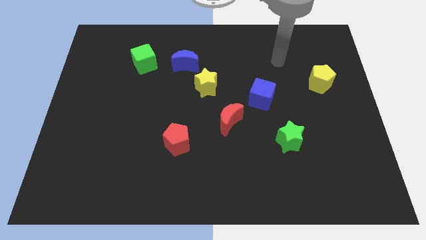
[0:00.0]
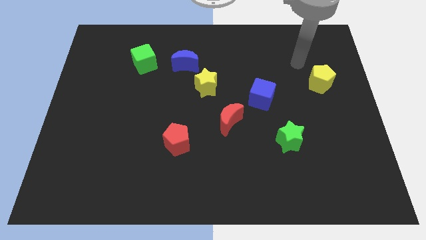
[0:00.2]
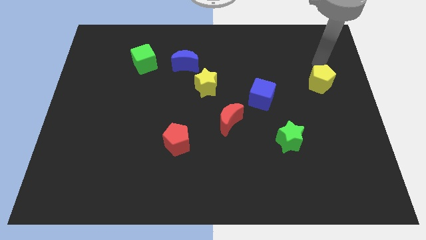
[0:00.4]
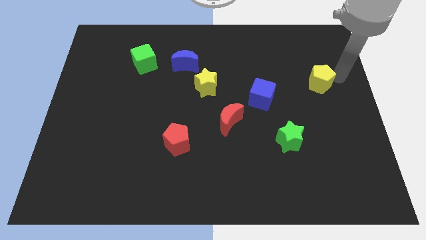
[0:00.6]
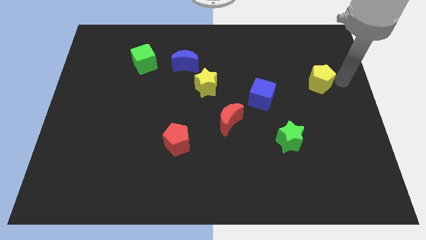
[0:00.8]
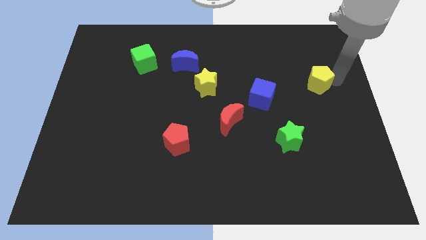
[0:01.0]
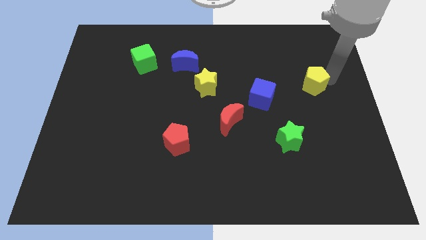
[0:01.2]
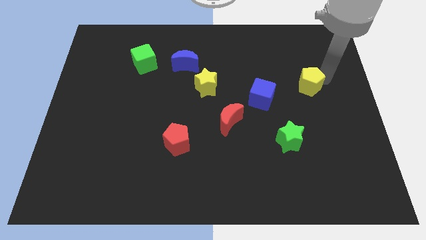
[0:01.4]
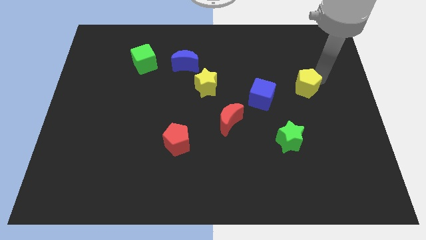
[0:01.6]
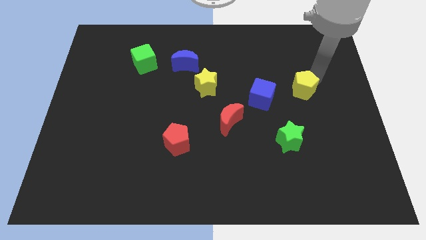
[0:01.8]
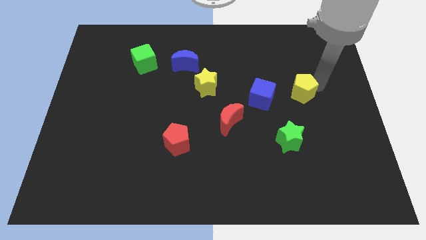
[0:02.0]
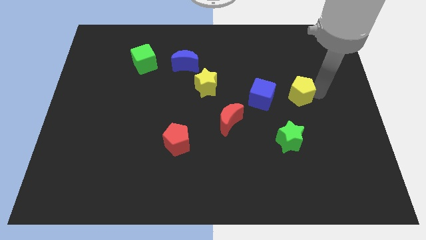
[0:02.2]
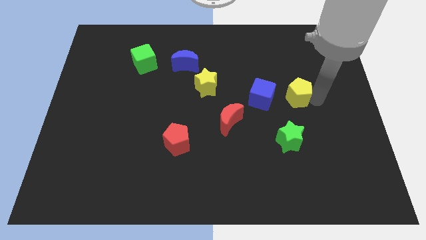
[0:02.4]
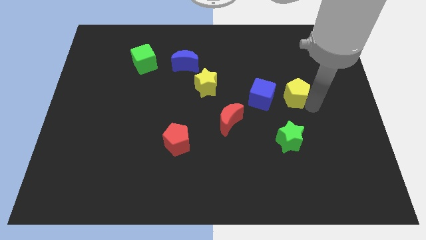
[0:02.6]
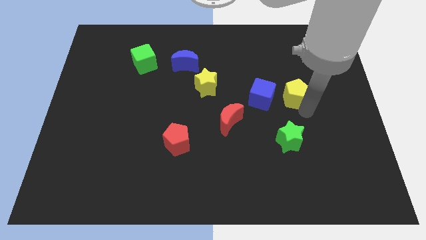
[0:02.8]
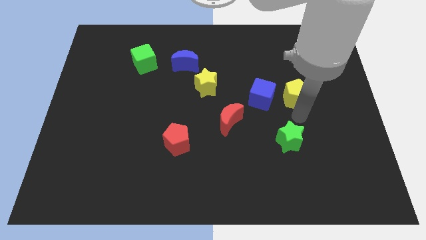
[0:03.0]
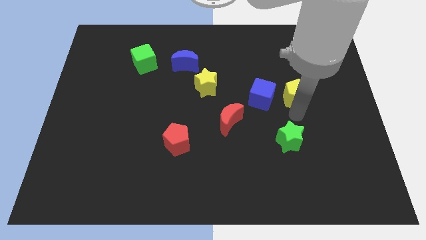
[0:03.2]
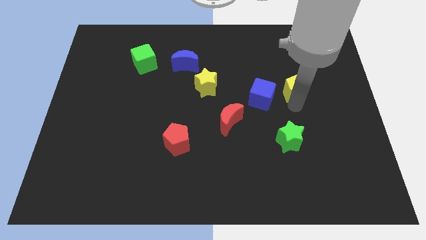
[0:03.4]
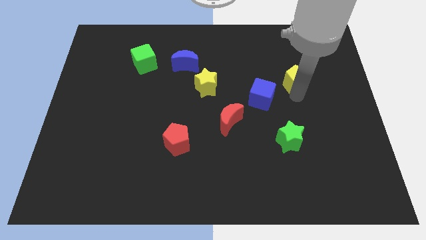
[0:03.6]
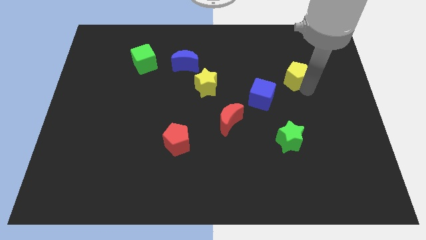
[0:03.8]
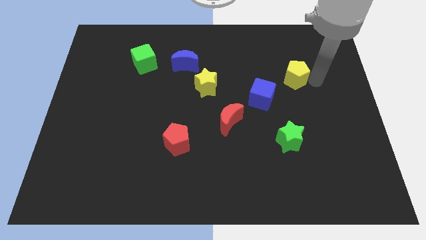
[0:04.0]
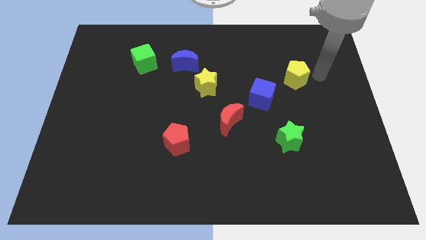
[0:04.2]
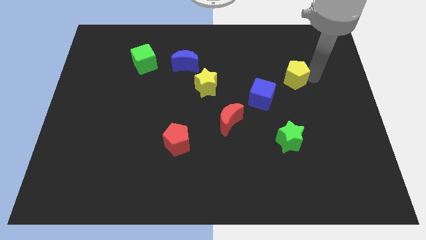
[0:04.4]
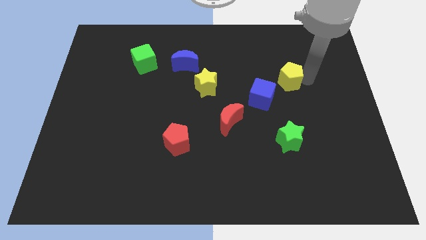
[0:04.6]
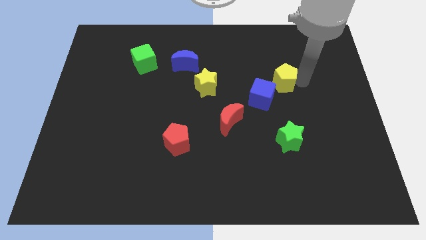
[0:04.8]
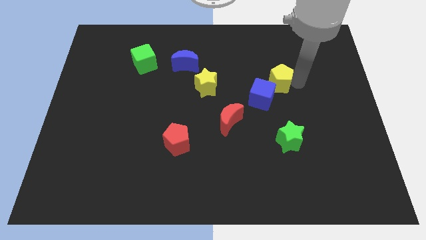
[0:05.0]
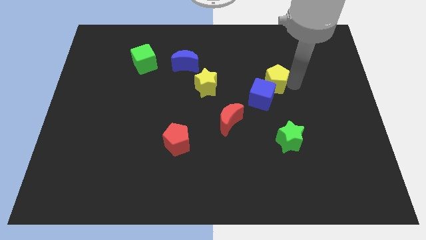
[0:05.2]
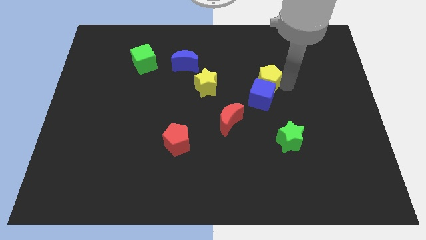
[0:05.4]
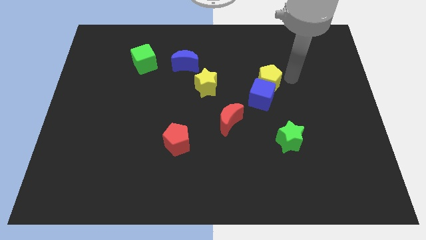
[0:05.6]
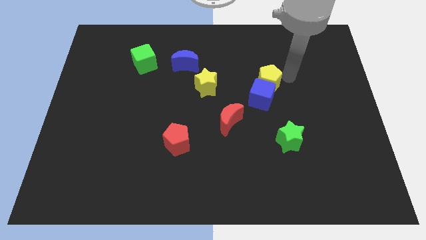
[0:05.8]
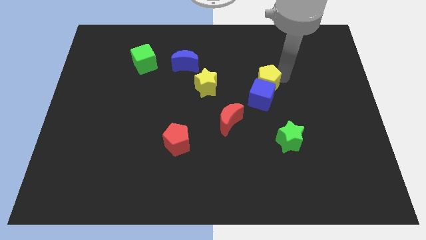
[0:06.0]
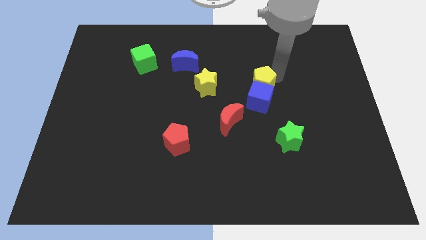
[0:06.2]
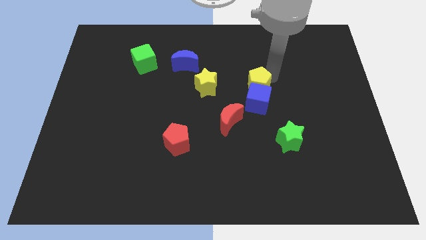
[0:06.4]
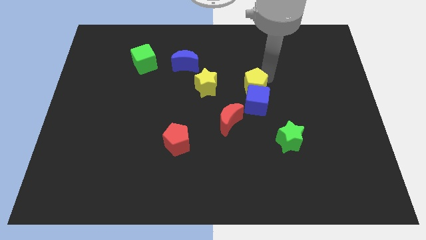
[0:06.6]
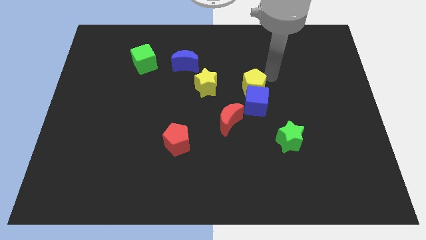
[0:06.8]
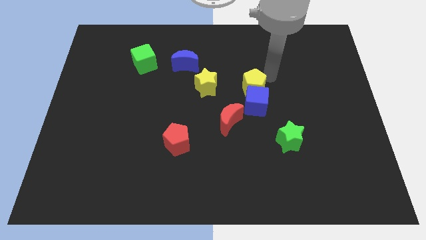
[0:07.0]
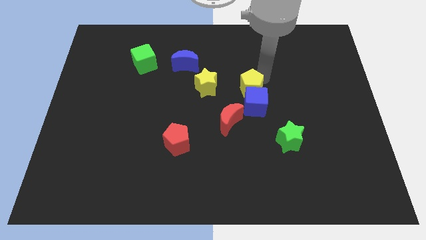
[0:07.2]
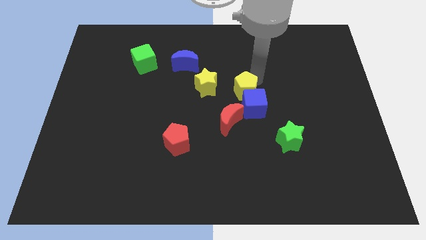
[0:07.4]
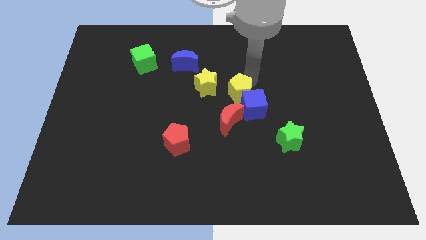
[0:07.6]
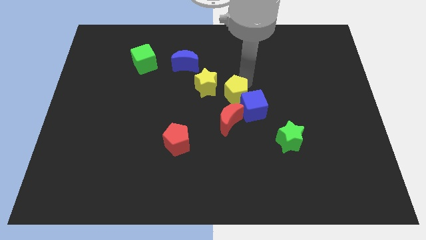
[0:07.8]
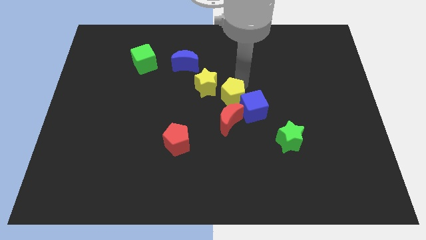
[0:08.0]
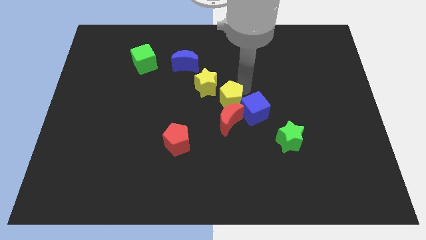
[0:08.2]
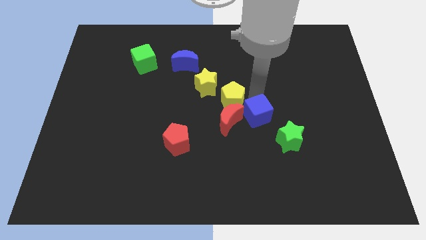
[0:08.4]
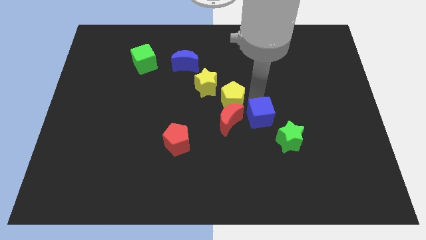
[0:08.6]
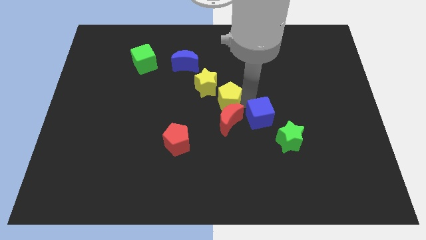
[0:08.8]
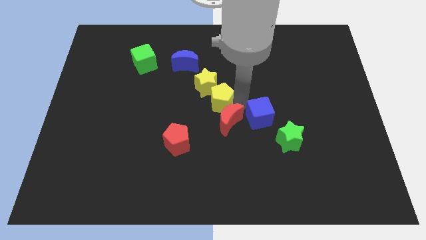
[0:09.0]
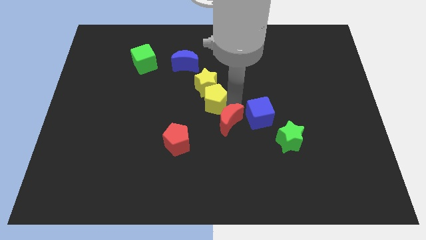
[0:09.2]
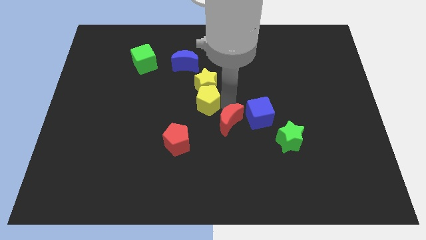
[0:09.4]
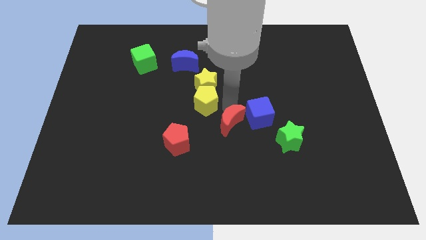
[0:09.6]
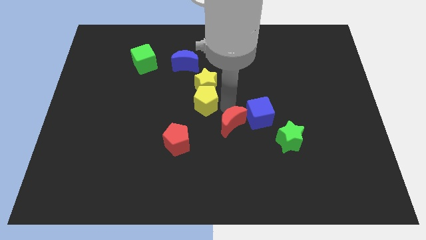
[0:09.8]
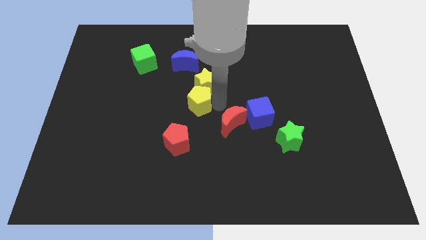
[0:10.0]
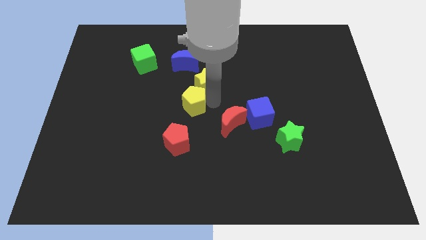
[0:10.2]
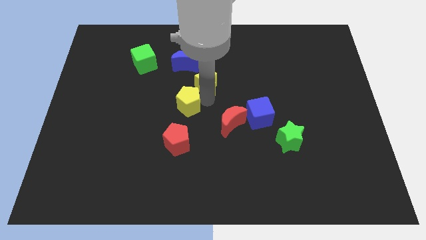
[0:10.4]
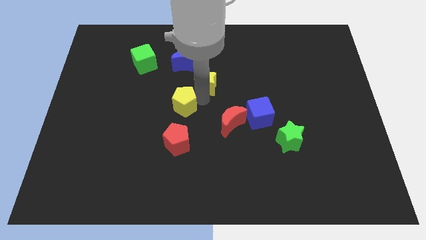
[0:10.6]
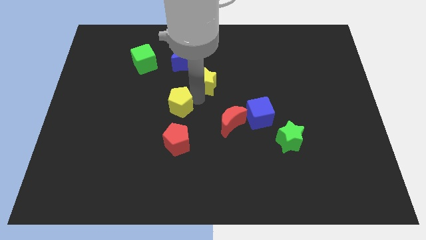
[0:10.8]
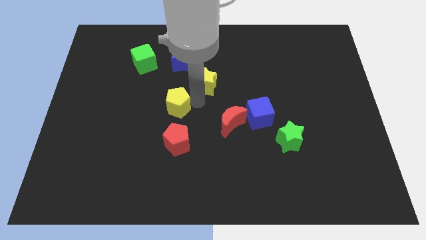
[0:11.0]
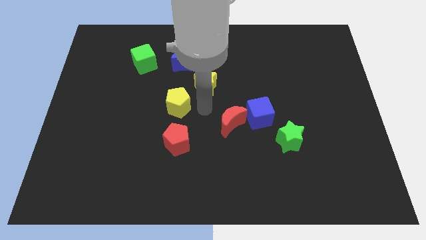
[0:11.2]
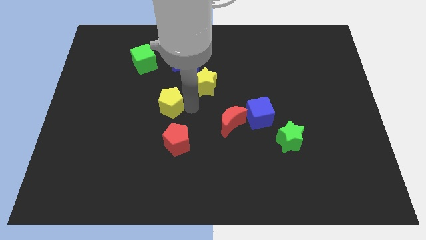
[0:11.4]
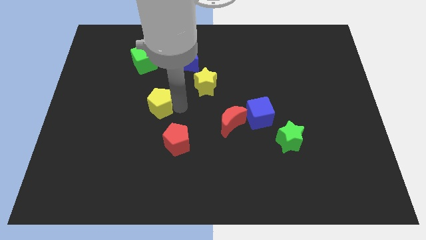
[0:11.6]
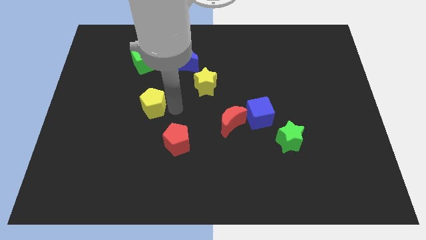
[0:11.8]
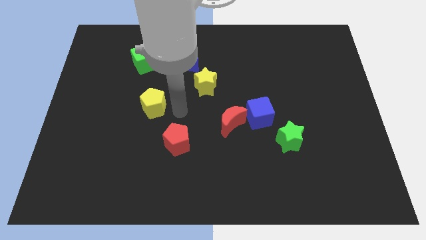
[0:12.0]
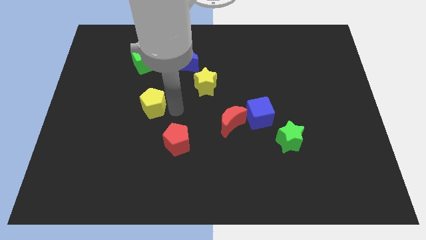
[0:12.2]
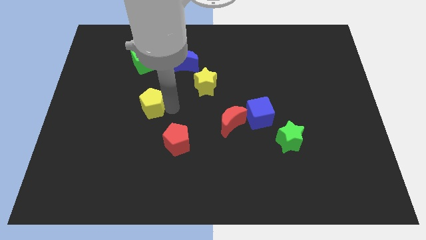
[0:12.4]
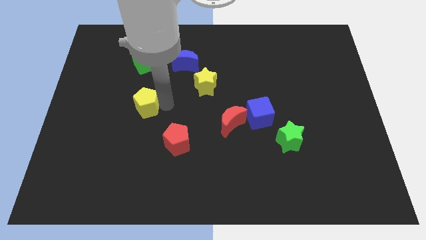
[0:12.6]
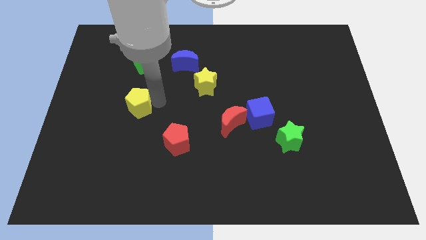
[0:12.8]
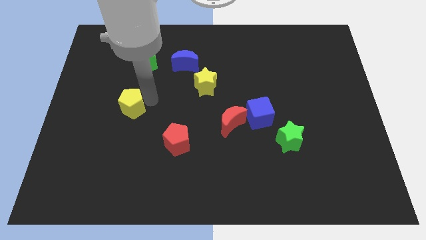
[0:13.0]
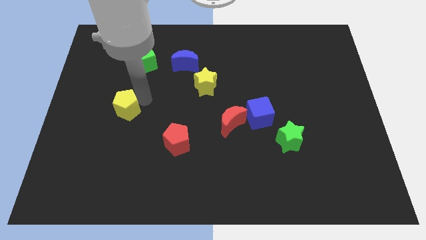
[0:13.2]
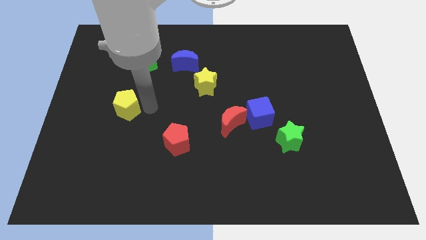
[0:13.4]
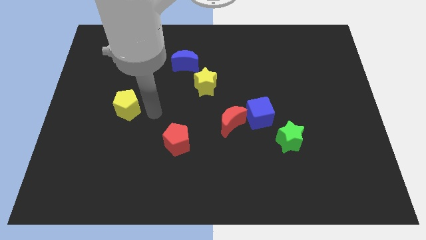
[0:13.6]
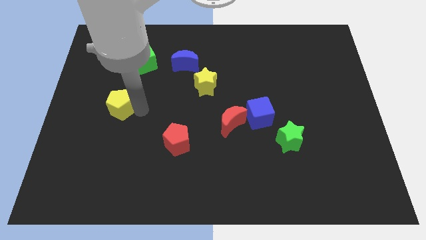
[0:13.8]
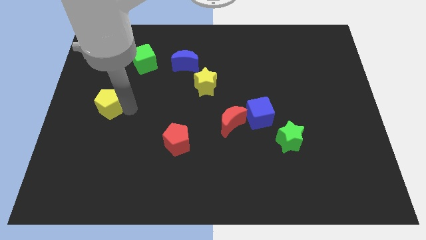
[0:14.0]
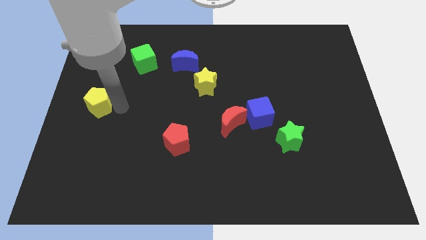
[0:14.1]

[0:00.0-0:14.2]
move the yellow pentagon to the center left

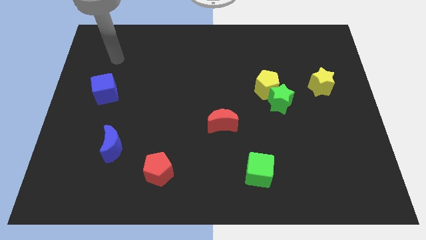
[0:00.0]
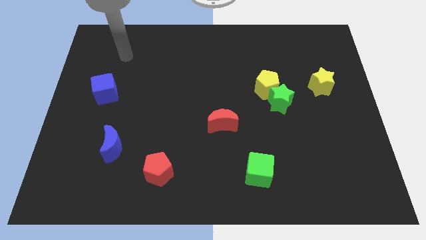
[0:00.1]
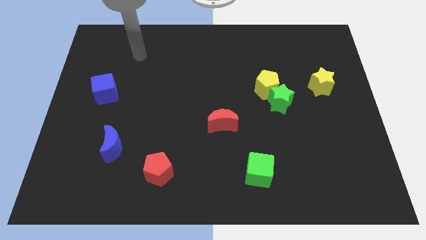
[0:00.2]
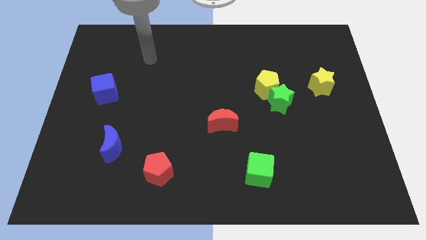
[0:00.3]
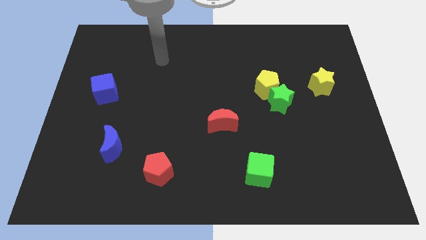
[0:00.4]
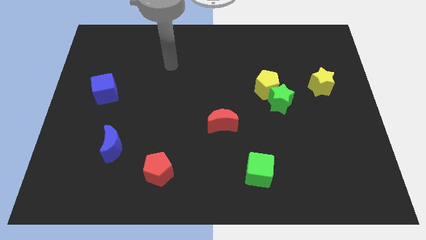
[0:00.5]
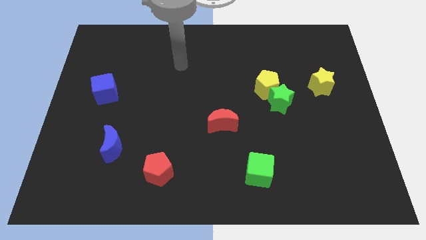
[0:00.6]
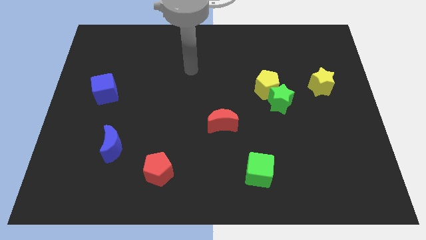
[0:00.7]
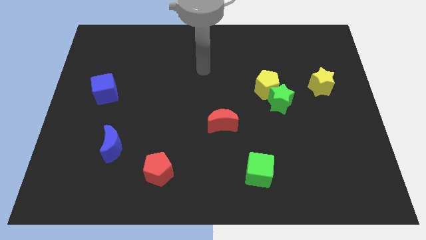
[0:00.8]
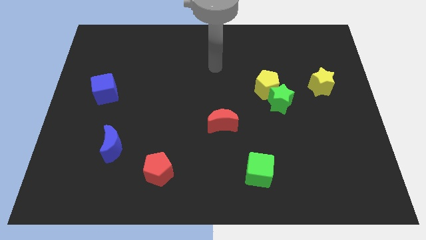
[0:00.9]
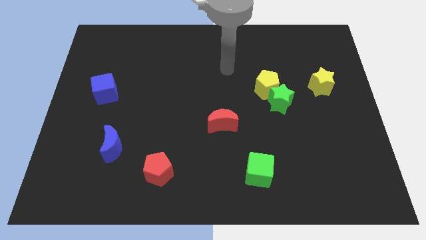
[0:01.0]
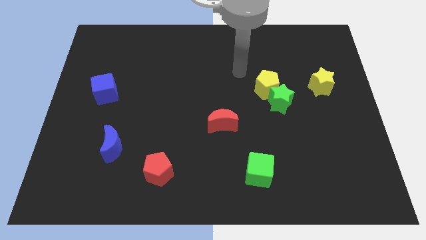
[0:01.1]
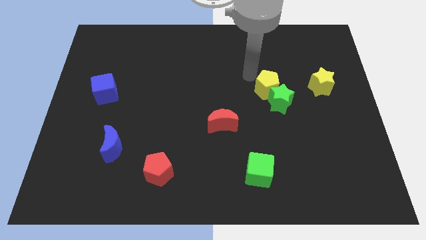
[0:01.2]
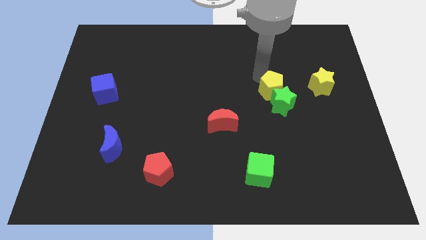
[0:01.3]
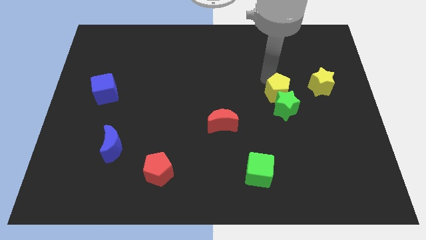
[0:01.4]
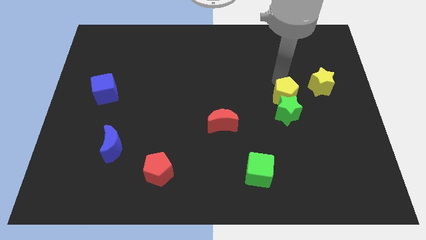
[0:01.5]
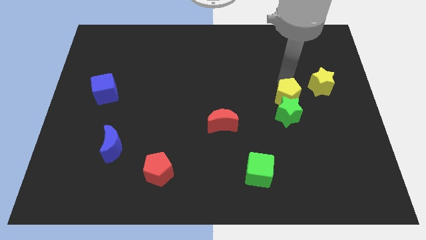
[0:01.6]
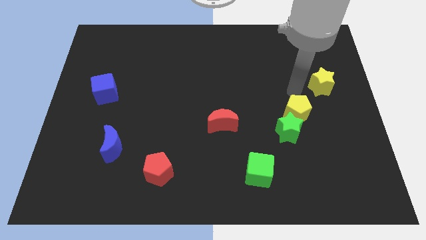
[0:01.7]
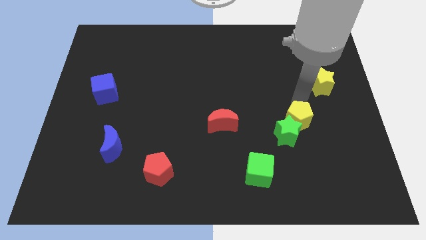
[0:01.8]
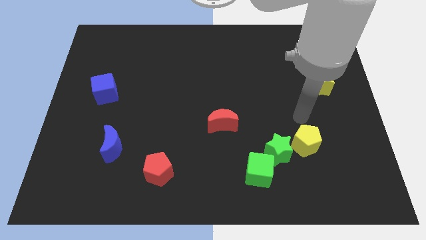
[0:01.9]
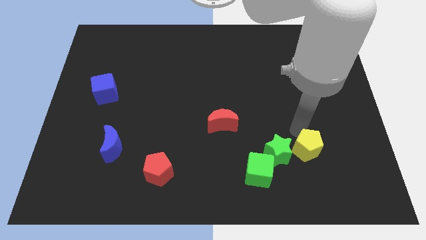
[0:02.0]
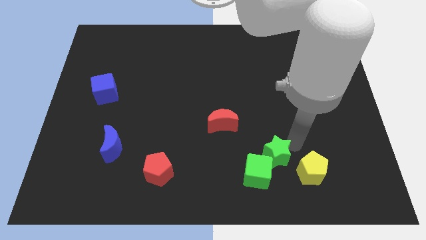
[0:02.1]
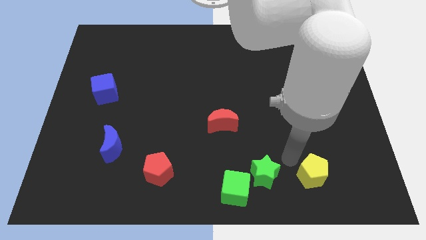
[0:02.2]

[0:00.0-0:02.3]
put the green star to the bottom side
